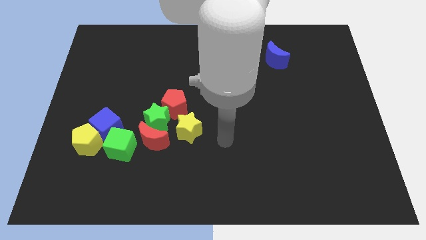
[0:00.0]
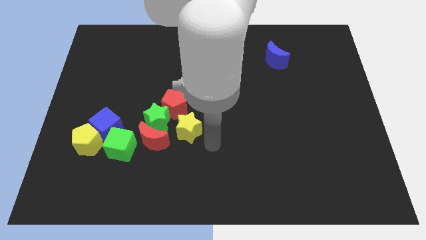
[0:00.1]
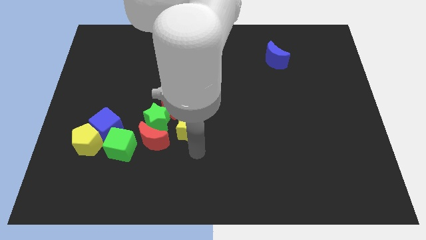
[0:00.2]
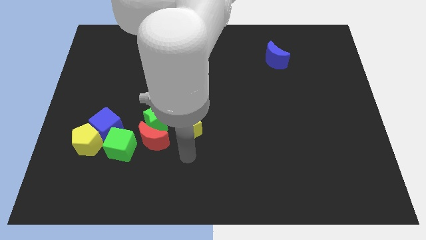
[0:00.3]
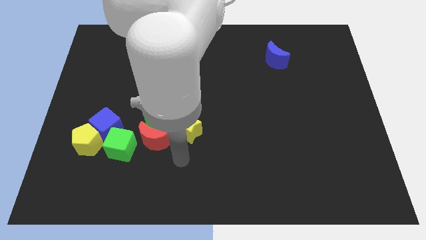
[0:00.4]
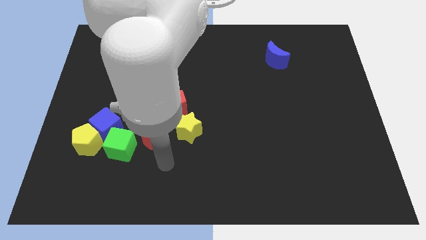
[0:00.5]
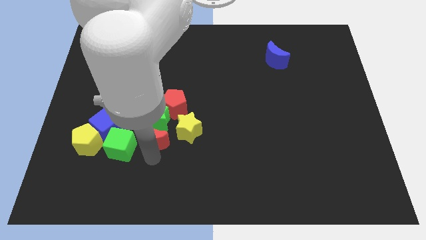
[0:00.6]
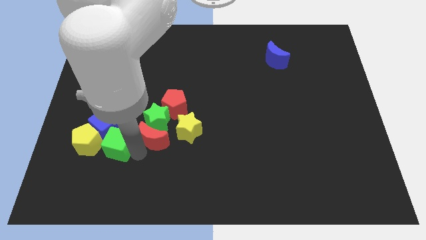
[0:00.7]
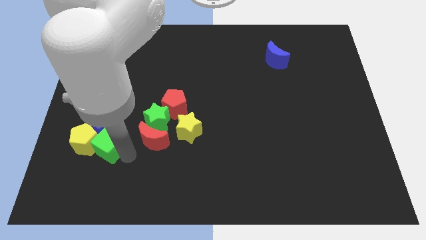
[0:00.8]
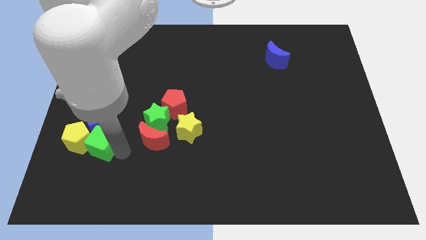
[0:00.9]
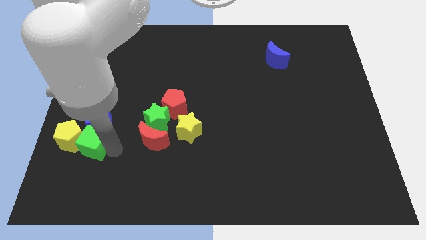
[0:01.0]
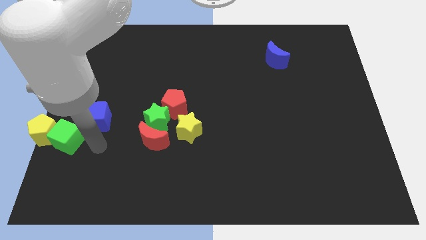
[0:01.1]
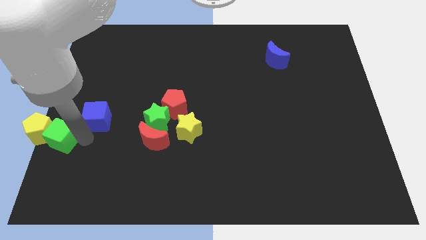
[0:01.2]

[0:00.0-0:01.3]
separate the blue cube from the yellow pentagon and green cube

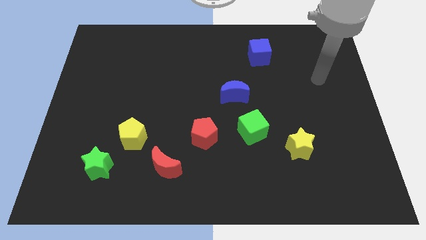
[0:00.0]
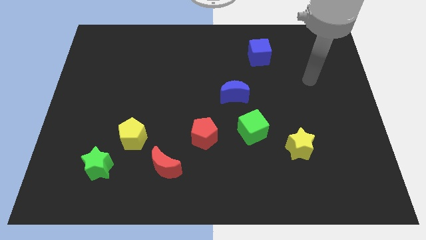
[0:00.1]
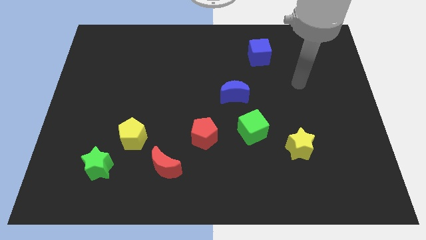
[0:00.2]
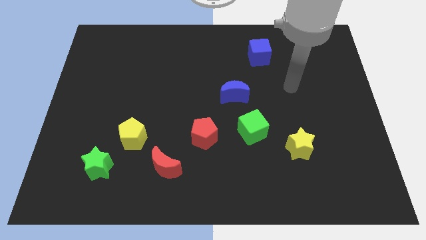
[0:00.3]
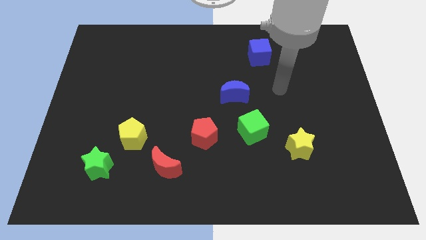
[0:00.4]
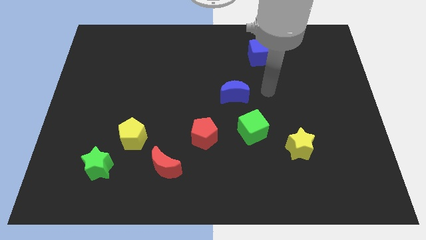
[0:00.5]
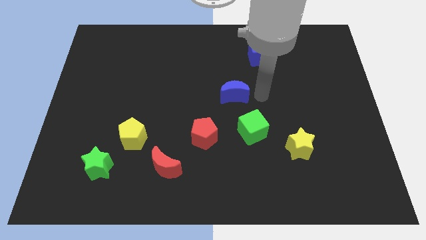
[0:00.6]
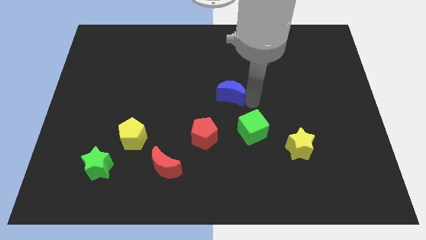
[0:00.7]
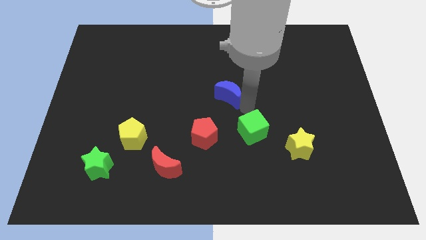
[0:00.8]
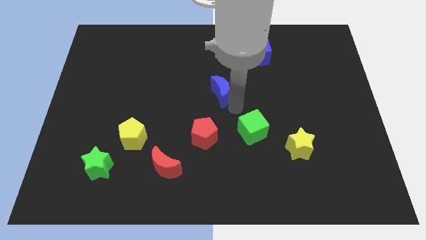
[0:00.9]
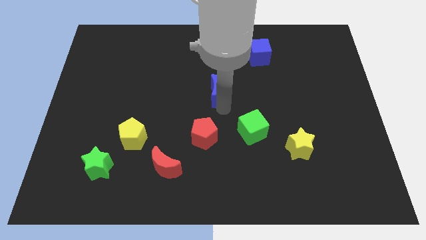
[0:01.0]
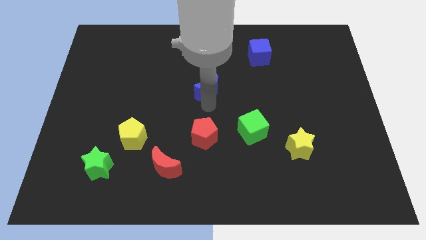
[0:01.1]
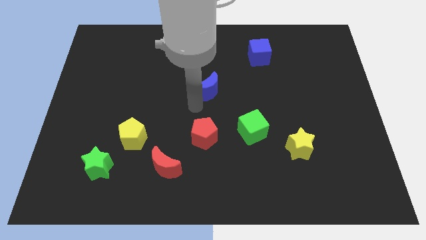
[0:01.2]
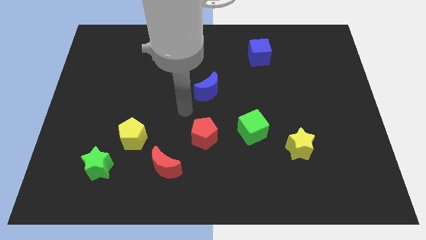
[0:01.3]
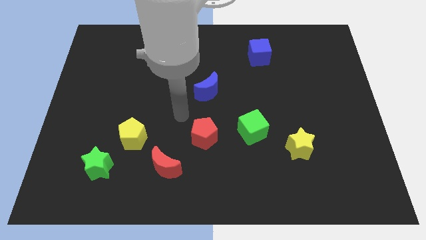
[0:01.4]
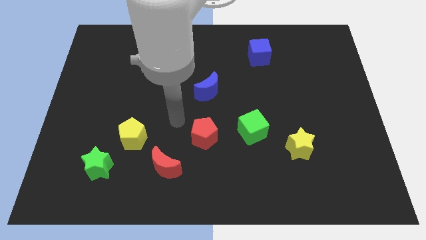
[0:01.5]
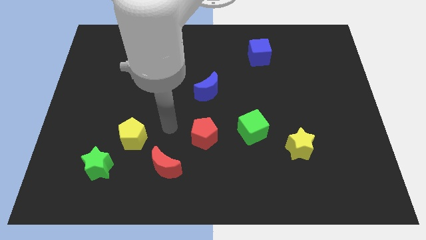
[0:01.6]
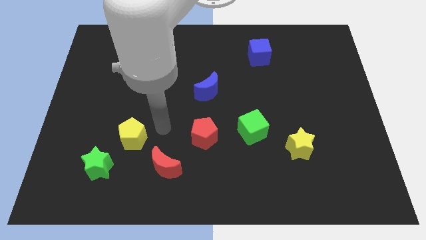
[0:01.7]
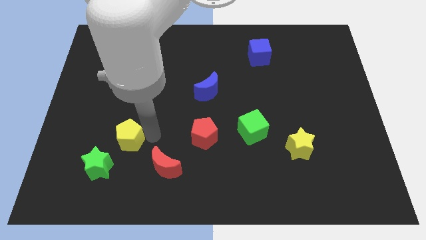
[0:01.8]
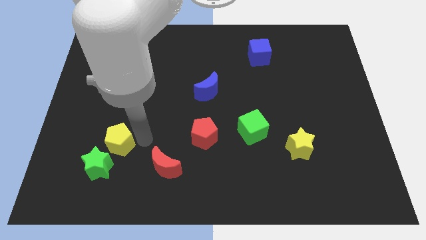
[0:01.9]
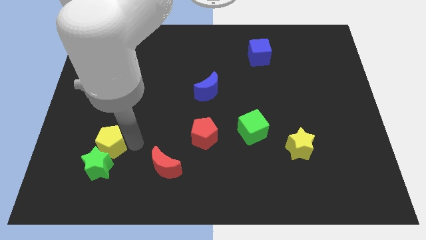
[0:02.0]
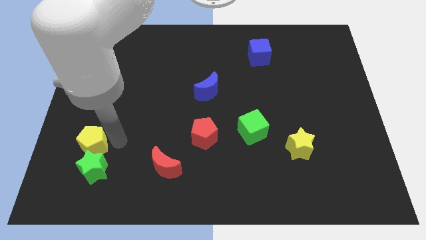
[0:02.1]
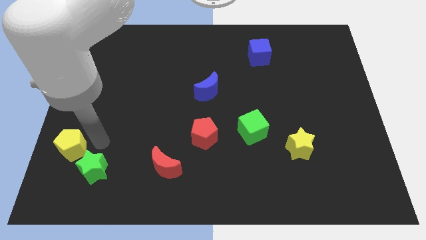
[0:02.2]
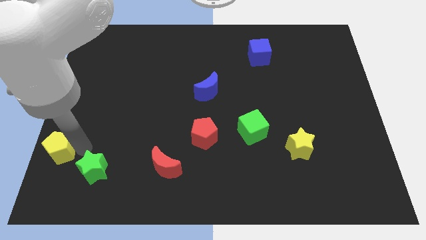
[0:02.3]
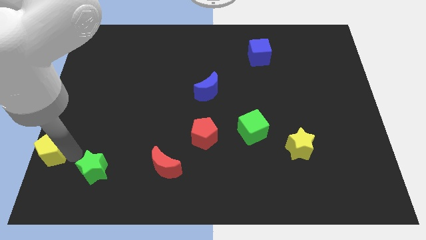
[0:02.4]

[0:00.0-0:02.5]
pull the green star apart from the yellow pentagon

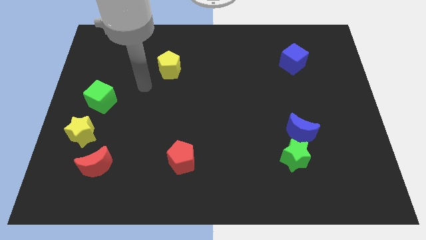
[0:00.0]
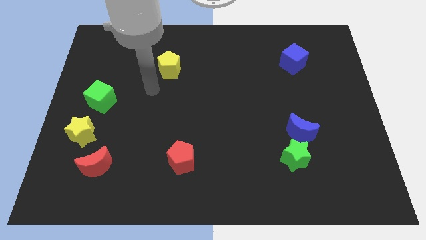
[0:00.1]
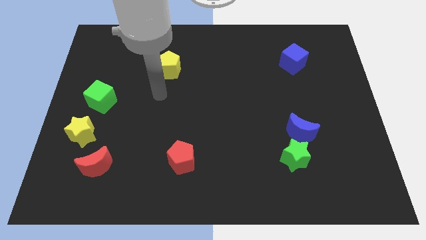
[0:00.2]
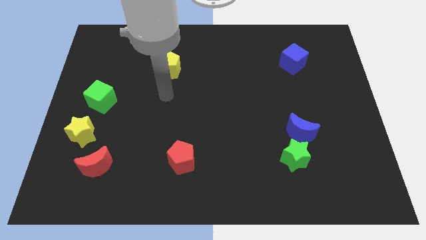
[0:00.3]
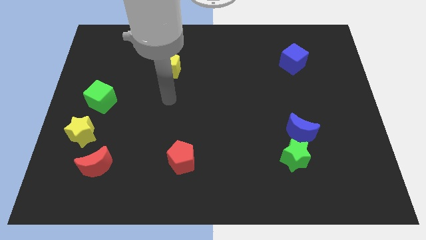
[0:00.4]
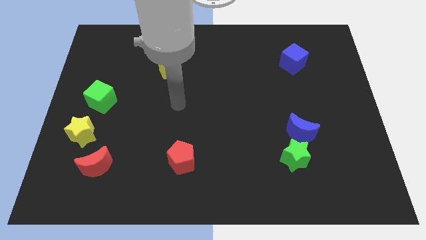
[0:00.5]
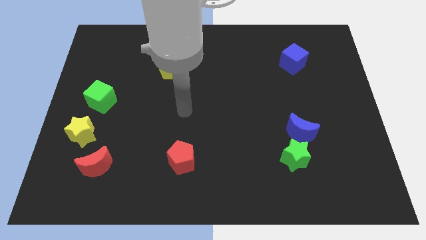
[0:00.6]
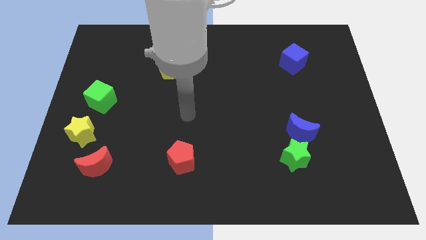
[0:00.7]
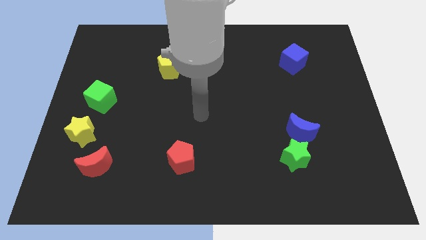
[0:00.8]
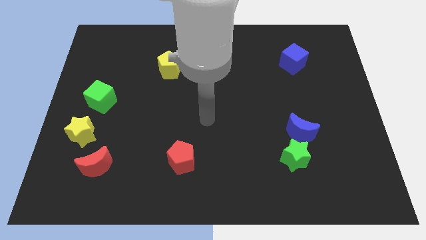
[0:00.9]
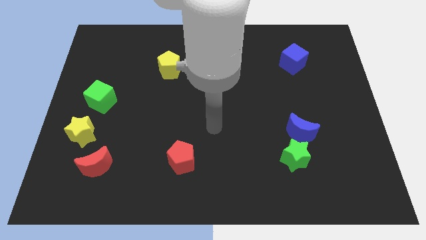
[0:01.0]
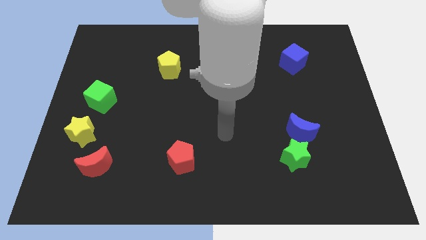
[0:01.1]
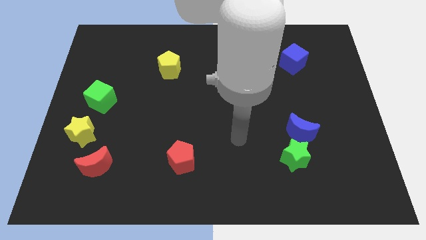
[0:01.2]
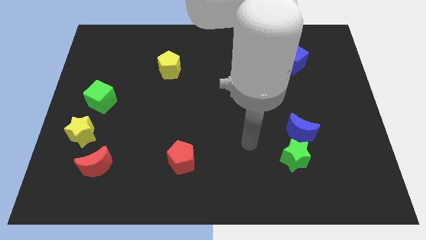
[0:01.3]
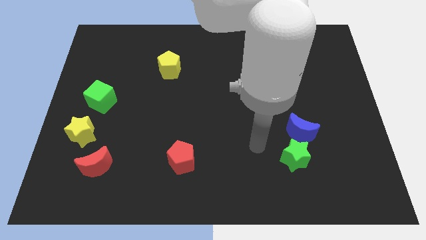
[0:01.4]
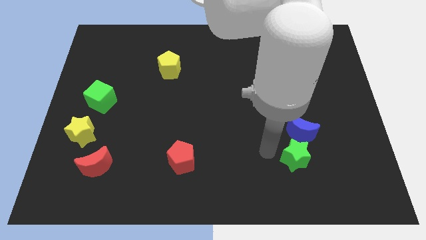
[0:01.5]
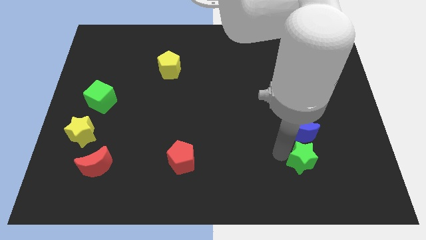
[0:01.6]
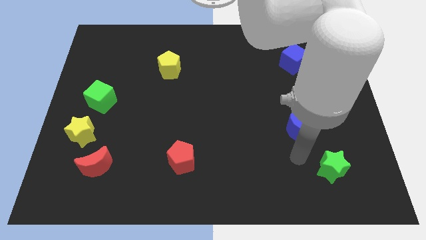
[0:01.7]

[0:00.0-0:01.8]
move the blue moon away from the green star

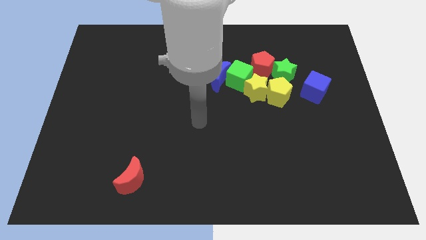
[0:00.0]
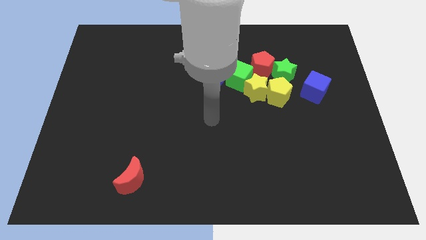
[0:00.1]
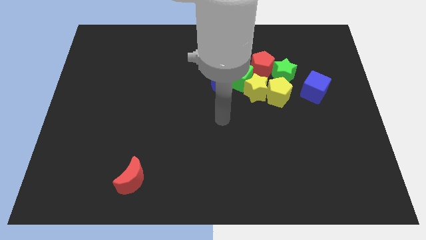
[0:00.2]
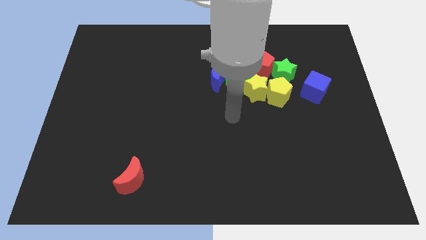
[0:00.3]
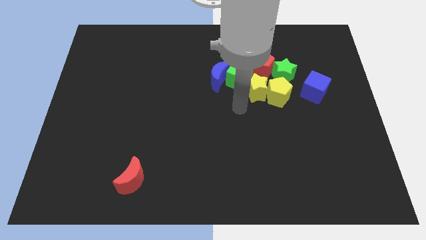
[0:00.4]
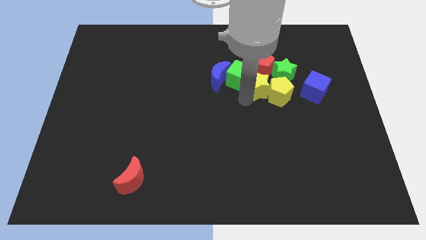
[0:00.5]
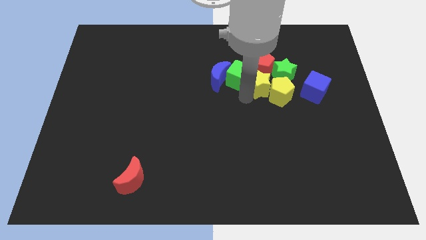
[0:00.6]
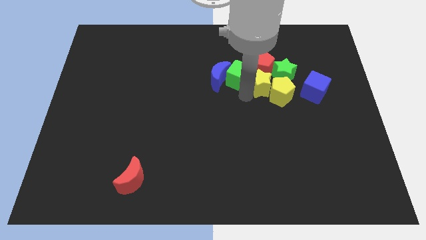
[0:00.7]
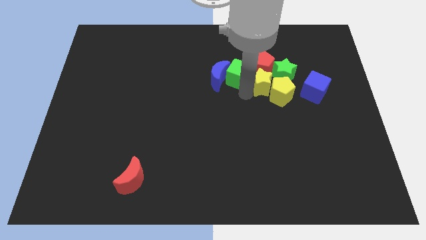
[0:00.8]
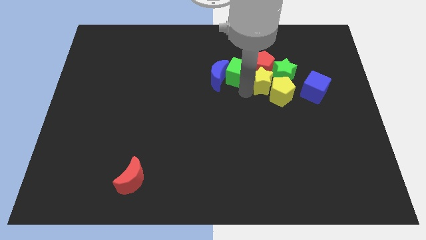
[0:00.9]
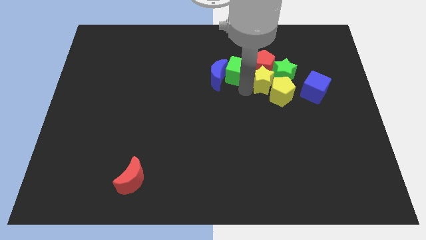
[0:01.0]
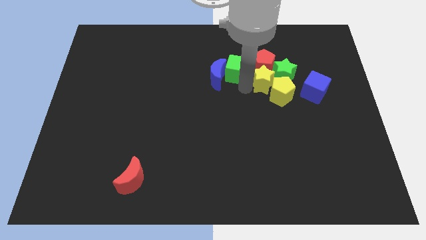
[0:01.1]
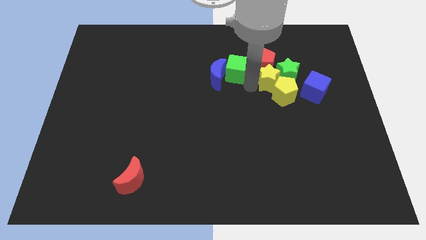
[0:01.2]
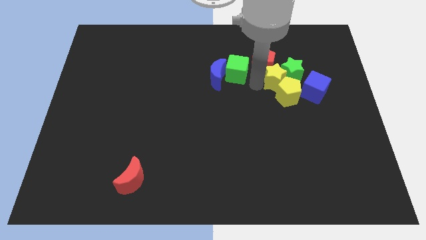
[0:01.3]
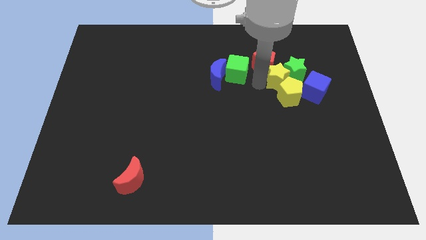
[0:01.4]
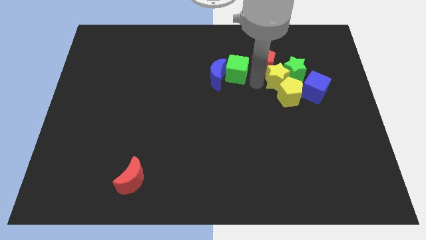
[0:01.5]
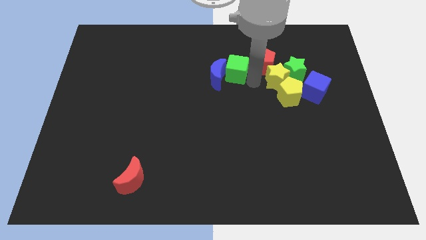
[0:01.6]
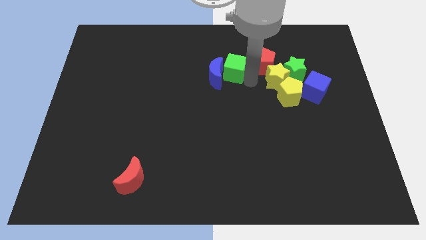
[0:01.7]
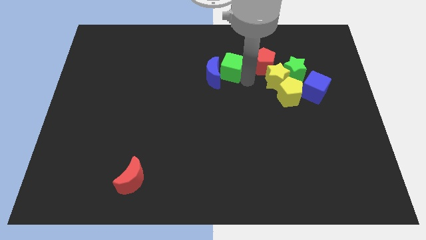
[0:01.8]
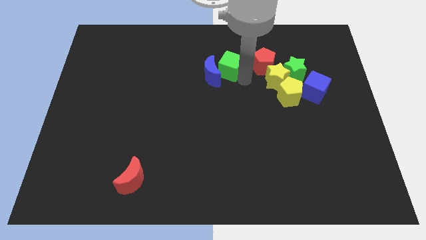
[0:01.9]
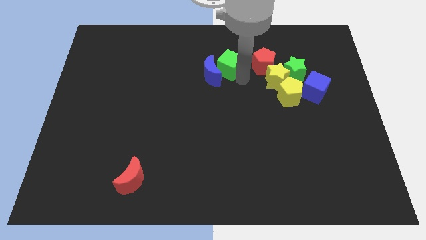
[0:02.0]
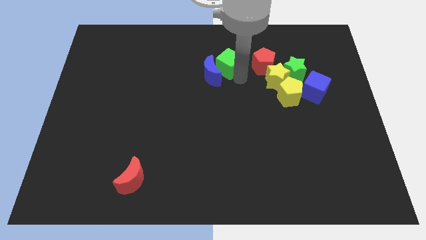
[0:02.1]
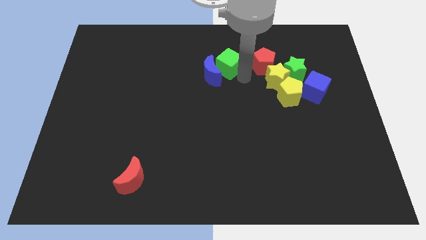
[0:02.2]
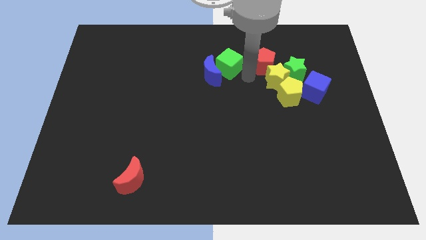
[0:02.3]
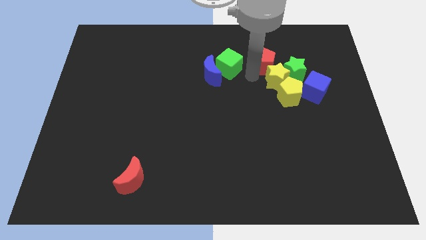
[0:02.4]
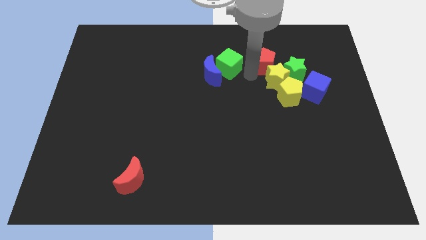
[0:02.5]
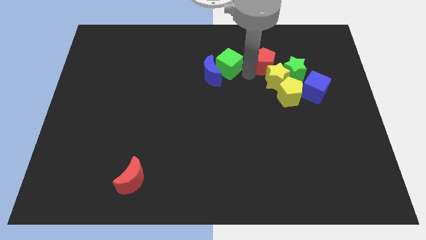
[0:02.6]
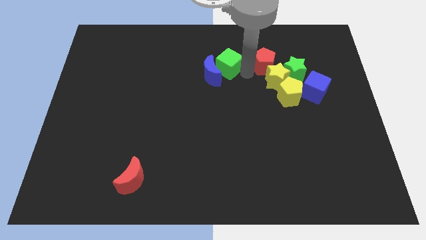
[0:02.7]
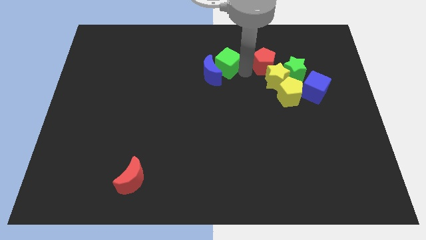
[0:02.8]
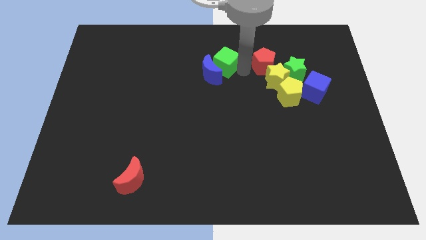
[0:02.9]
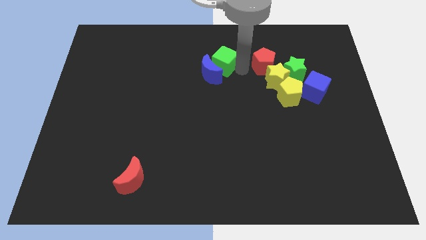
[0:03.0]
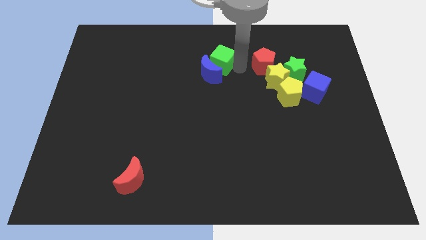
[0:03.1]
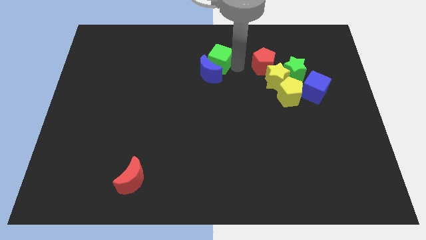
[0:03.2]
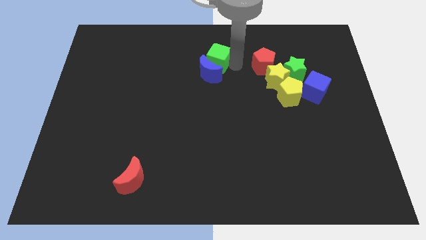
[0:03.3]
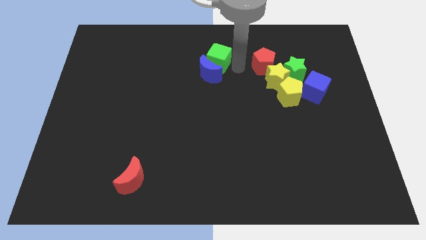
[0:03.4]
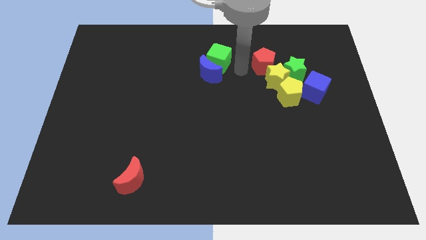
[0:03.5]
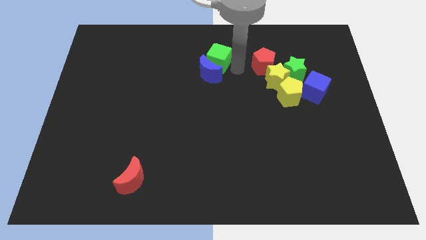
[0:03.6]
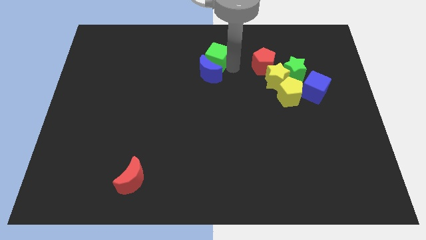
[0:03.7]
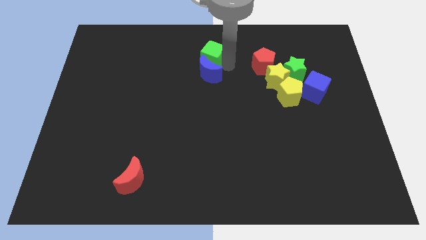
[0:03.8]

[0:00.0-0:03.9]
separate the green cube from the group of blocks
